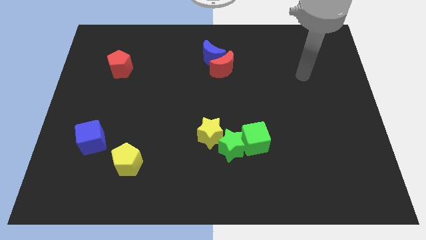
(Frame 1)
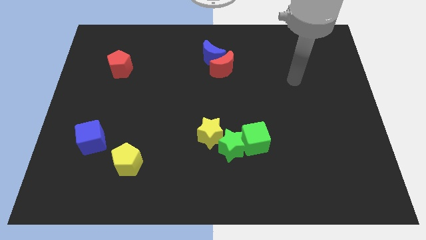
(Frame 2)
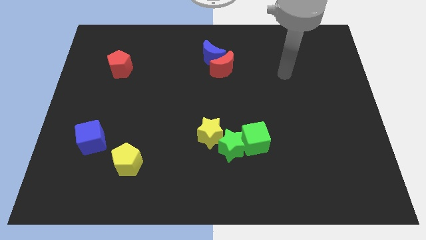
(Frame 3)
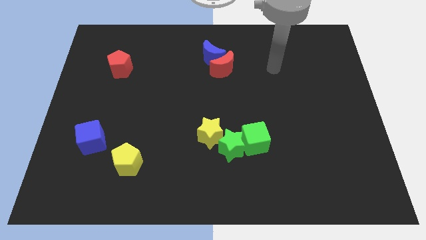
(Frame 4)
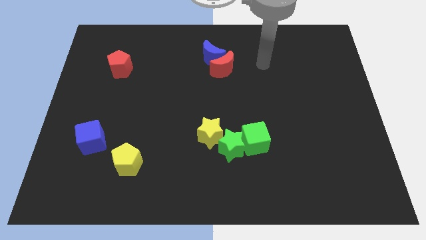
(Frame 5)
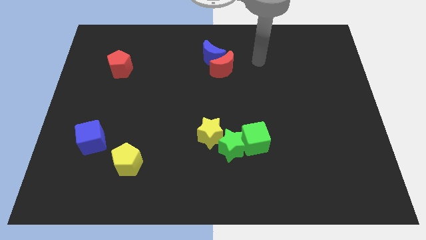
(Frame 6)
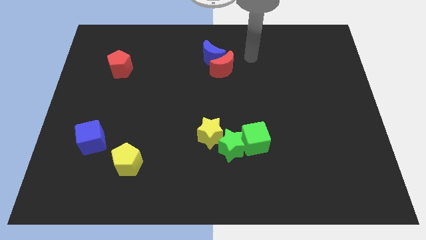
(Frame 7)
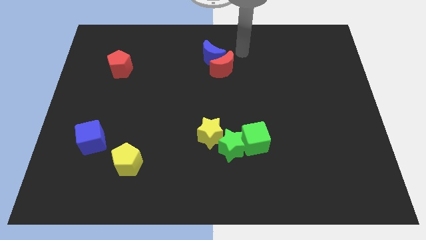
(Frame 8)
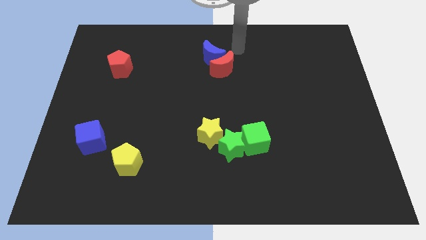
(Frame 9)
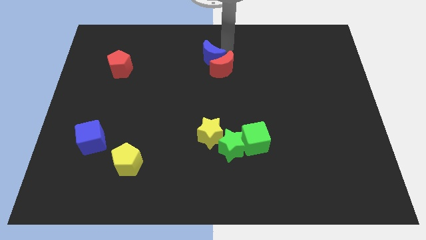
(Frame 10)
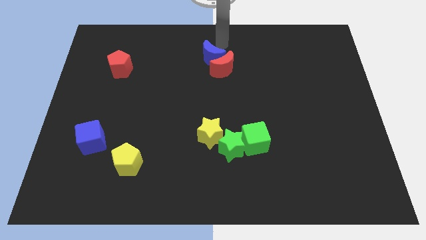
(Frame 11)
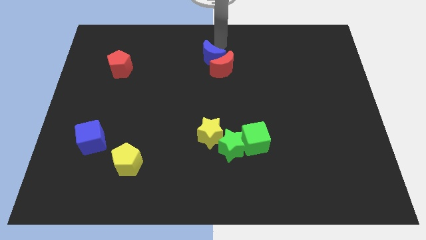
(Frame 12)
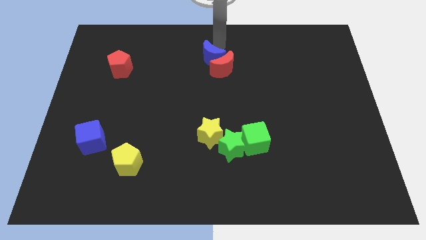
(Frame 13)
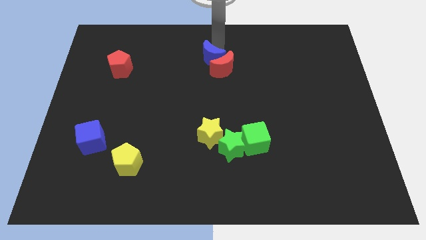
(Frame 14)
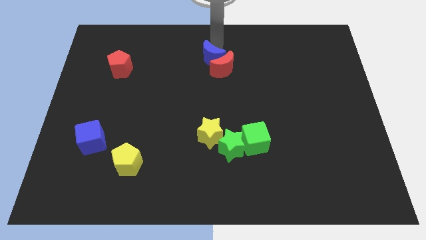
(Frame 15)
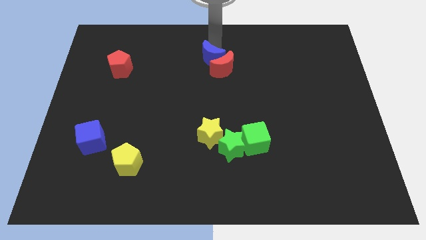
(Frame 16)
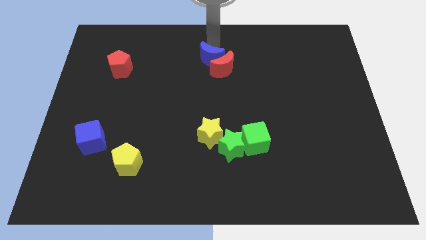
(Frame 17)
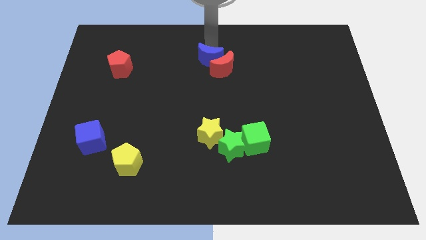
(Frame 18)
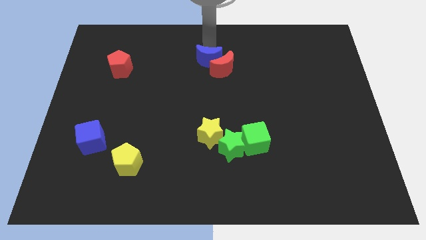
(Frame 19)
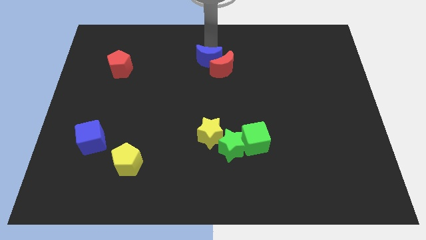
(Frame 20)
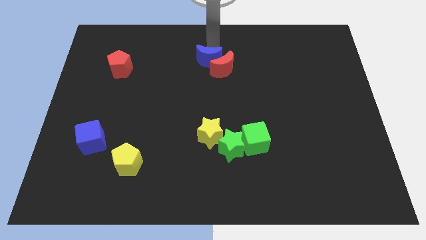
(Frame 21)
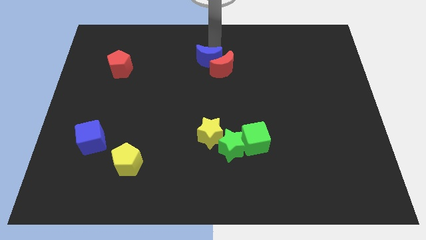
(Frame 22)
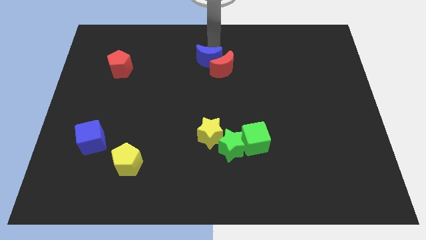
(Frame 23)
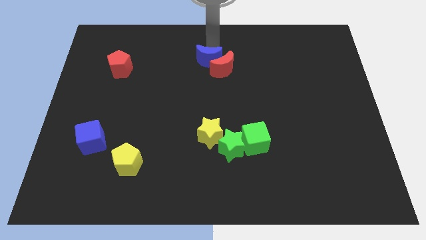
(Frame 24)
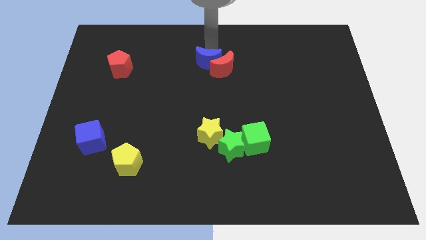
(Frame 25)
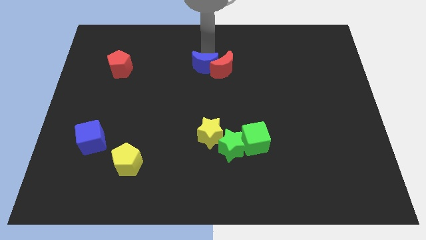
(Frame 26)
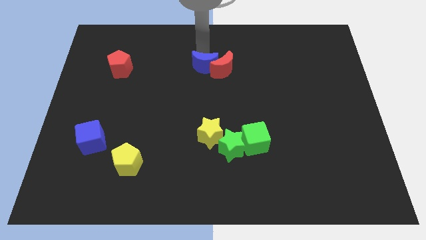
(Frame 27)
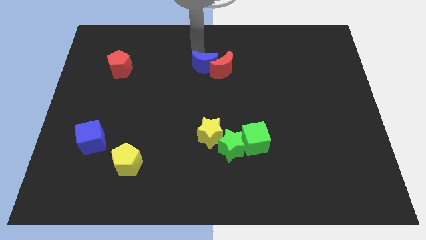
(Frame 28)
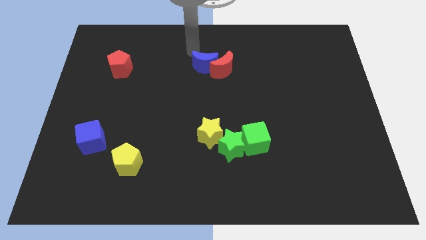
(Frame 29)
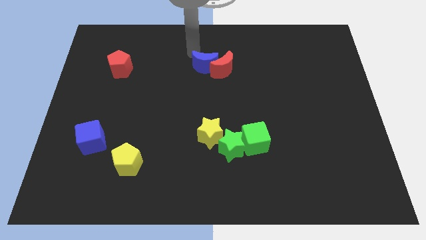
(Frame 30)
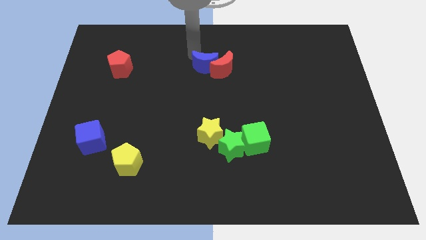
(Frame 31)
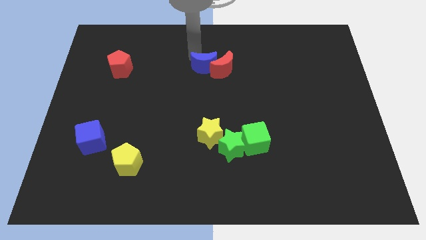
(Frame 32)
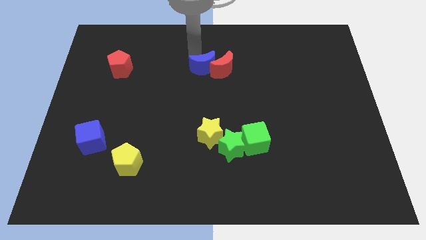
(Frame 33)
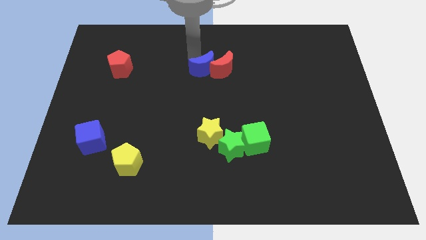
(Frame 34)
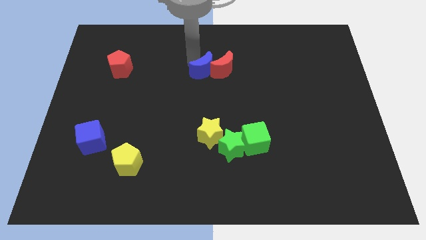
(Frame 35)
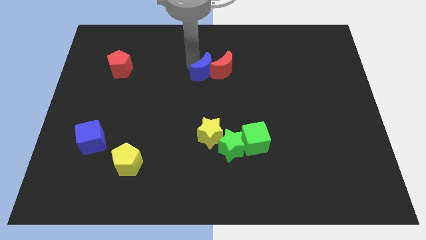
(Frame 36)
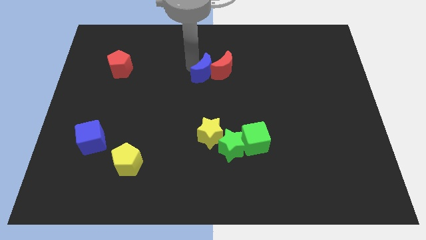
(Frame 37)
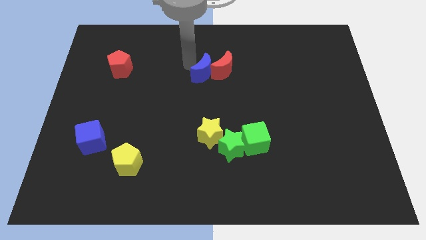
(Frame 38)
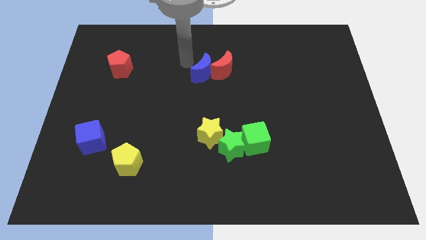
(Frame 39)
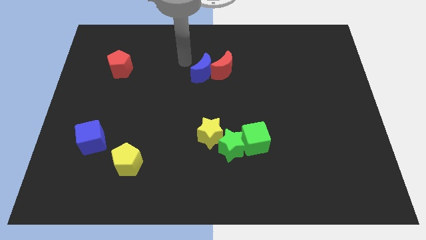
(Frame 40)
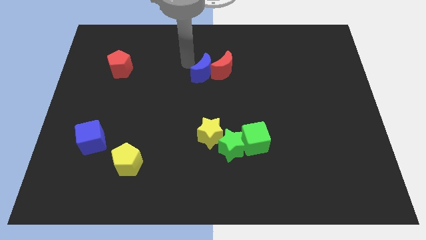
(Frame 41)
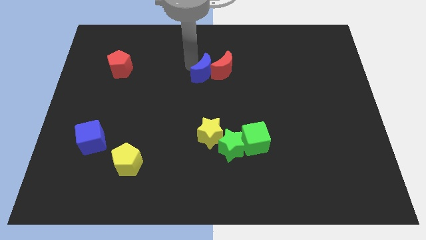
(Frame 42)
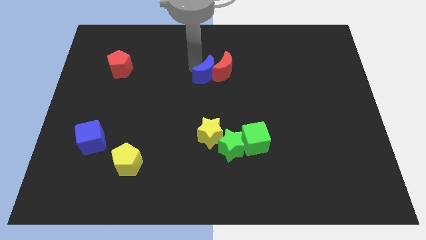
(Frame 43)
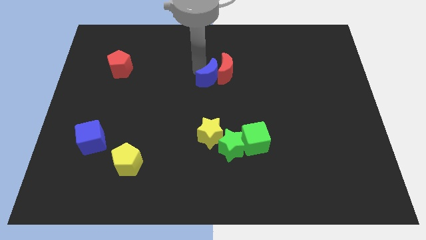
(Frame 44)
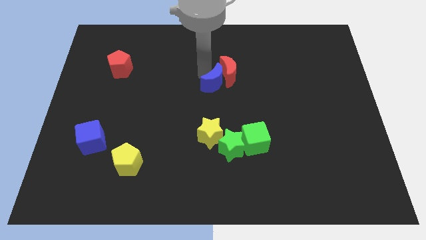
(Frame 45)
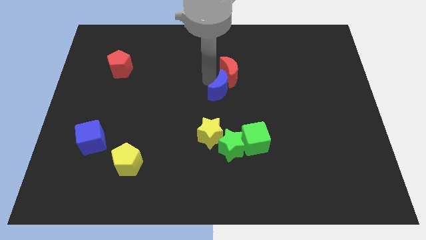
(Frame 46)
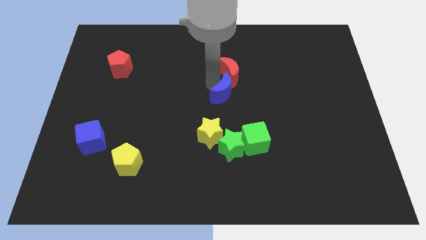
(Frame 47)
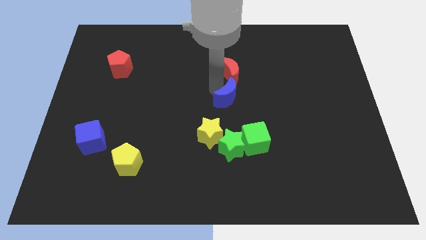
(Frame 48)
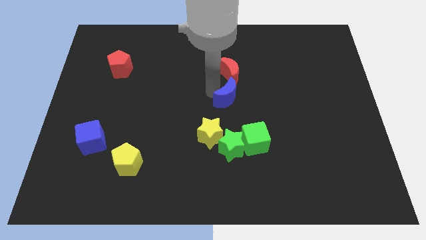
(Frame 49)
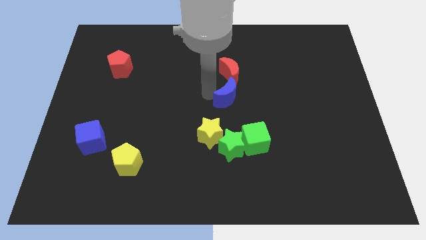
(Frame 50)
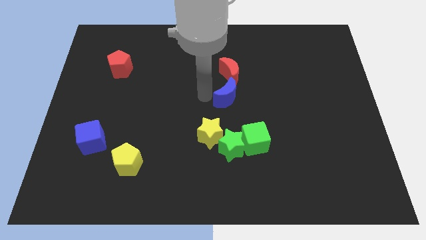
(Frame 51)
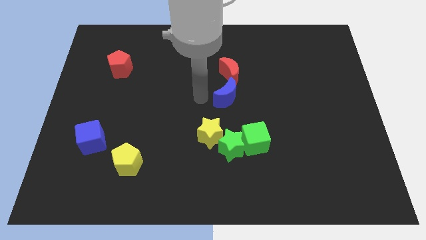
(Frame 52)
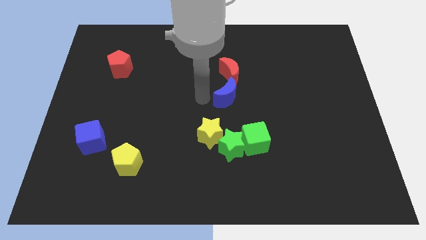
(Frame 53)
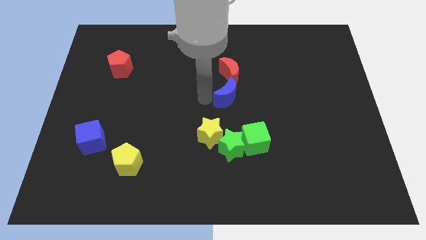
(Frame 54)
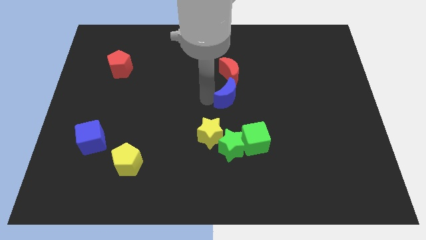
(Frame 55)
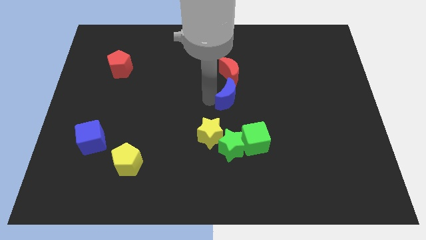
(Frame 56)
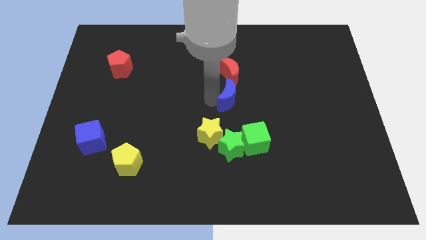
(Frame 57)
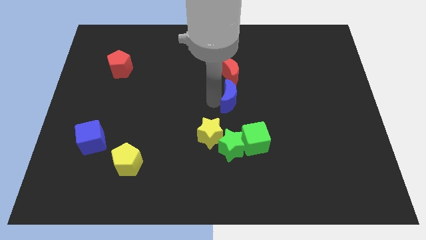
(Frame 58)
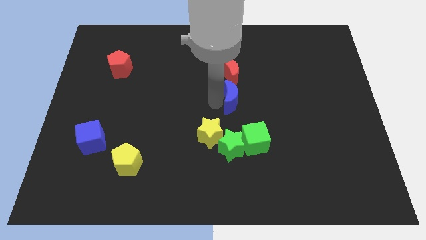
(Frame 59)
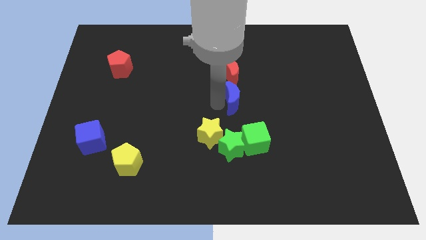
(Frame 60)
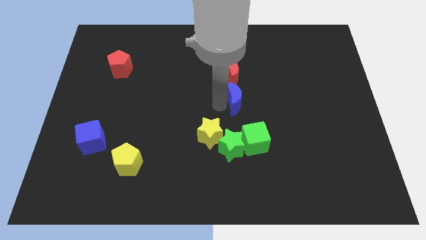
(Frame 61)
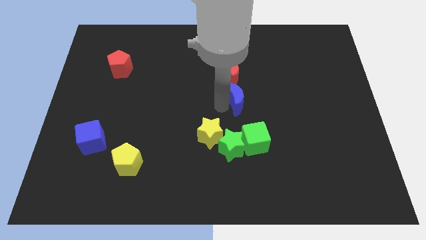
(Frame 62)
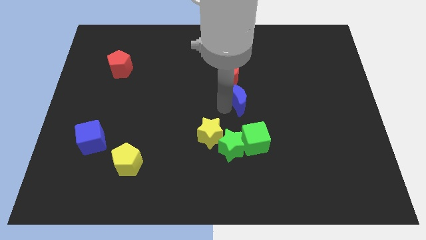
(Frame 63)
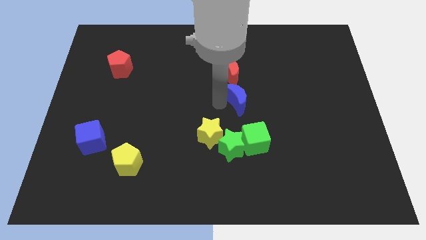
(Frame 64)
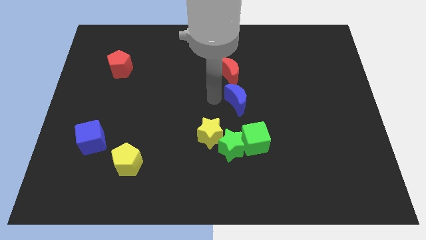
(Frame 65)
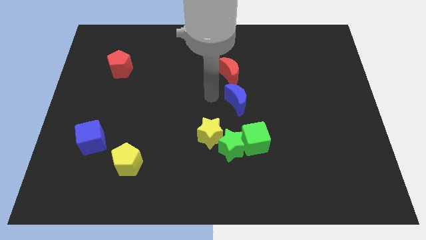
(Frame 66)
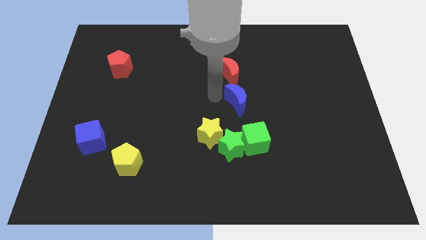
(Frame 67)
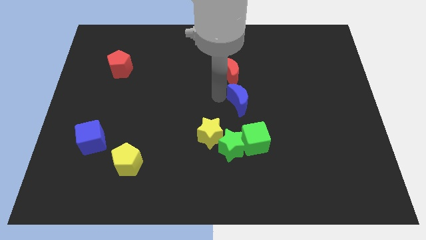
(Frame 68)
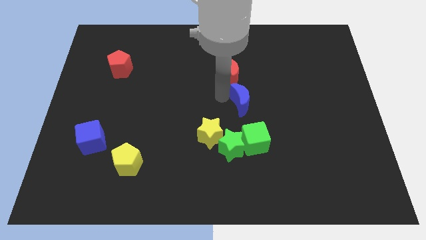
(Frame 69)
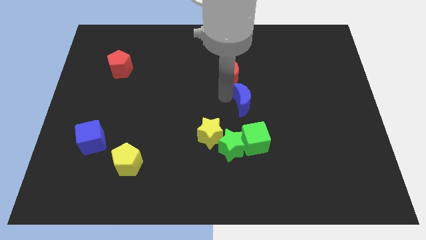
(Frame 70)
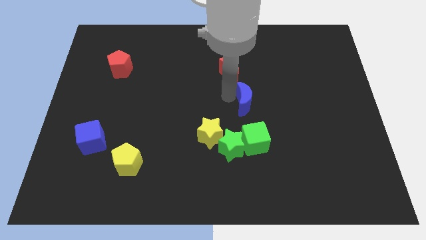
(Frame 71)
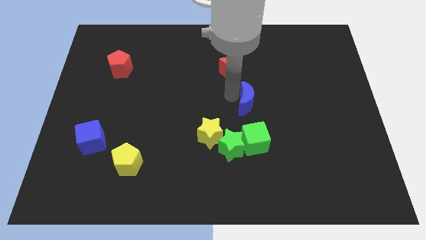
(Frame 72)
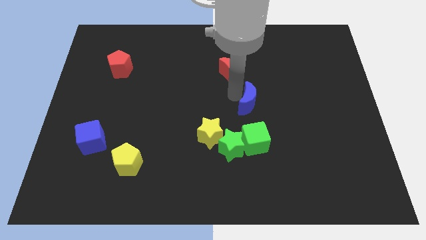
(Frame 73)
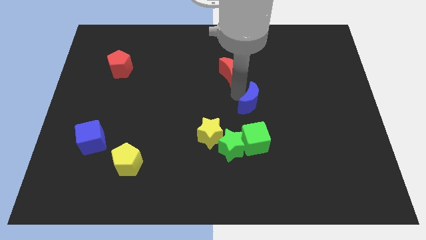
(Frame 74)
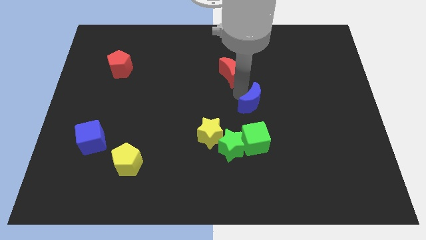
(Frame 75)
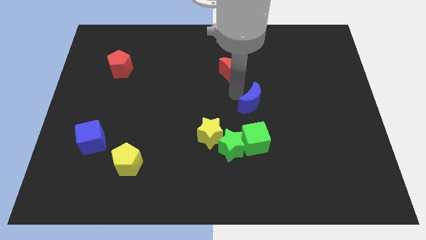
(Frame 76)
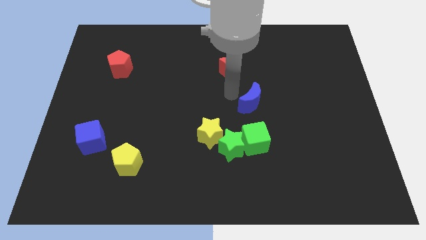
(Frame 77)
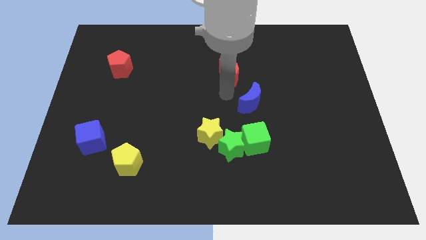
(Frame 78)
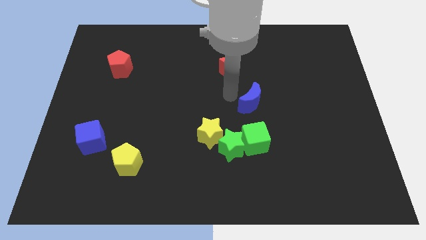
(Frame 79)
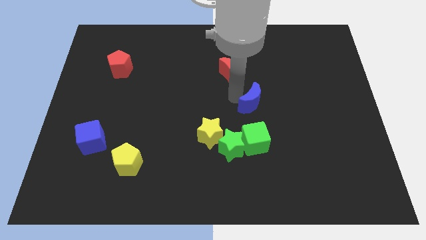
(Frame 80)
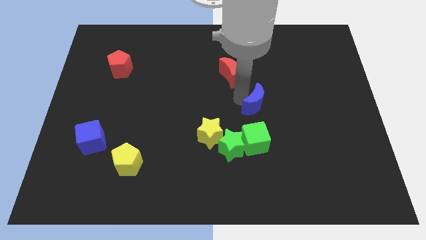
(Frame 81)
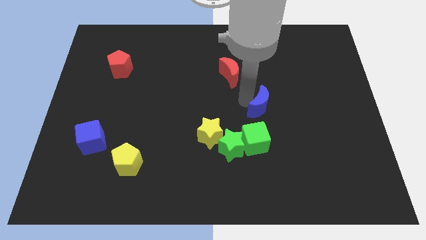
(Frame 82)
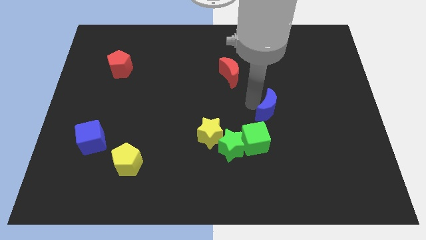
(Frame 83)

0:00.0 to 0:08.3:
slide the blue moon downwards and to the right diagonally
